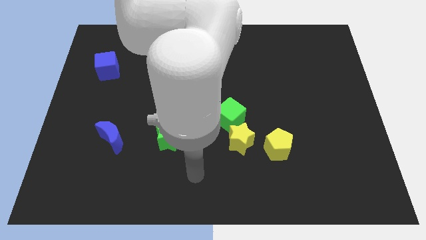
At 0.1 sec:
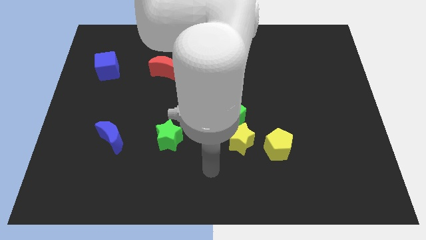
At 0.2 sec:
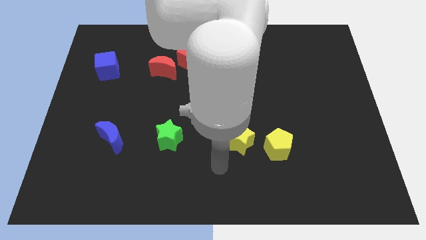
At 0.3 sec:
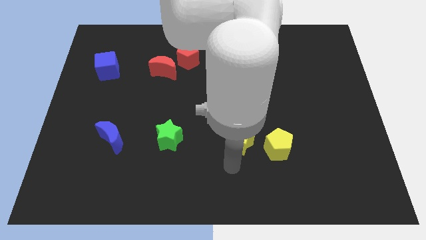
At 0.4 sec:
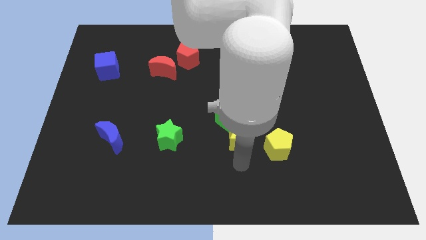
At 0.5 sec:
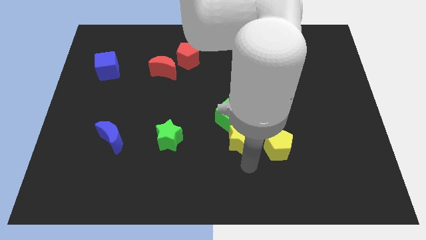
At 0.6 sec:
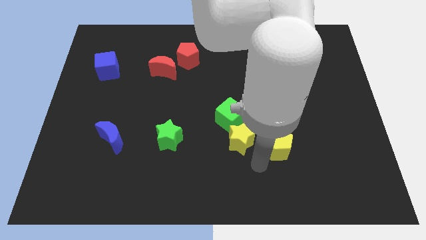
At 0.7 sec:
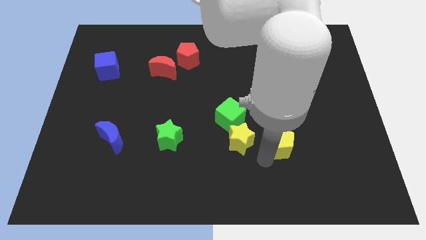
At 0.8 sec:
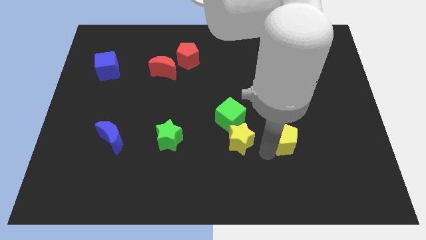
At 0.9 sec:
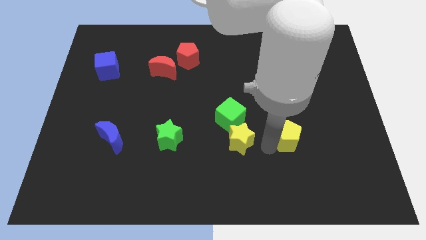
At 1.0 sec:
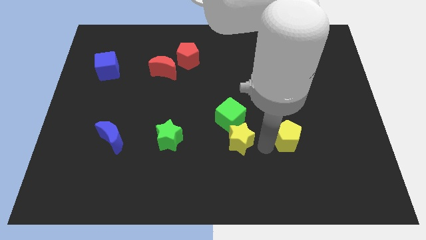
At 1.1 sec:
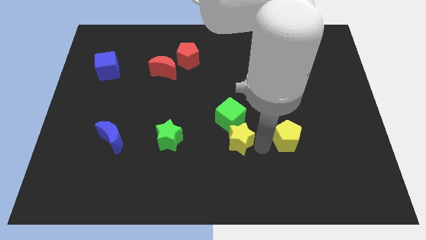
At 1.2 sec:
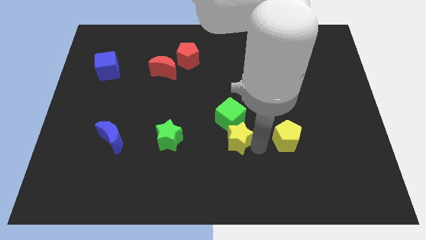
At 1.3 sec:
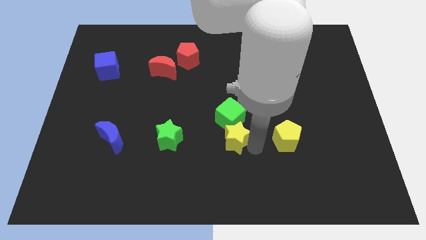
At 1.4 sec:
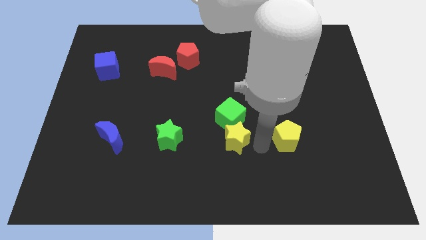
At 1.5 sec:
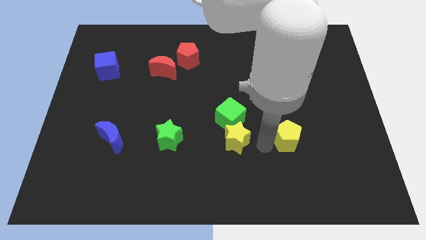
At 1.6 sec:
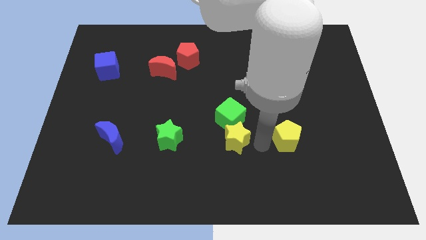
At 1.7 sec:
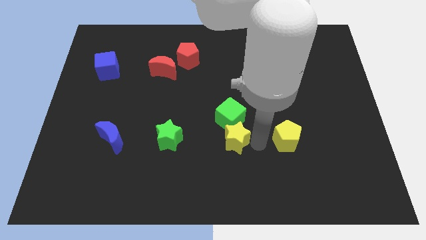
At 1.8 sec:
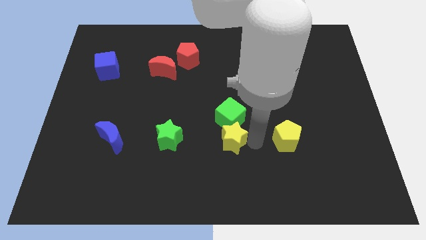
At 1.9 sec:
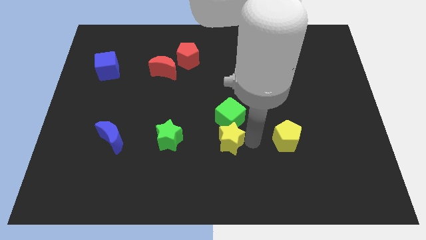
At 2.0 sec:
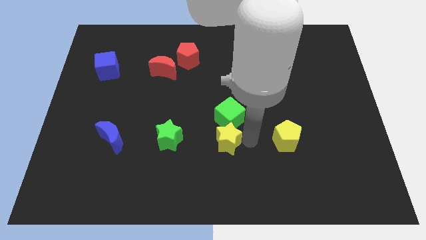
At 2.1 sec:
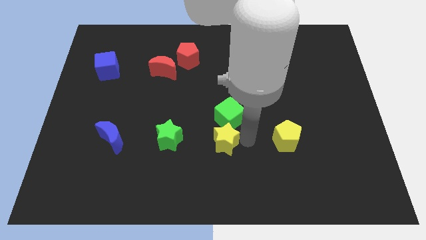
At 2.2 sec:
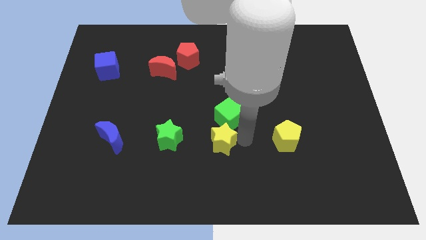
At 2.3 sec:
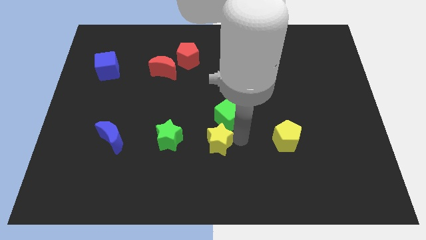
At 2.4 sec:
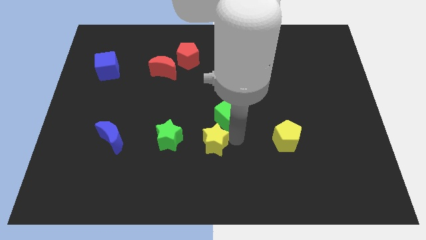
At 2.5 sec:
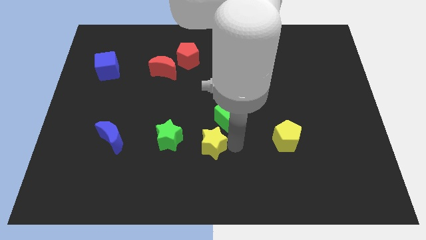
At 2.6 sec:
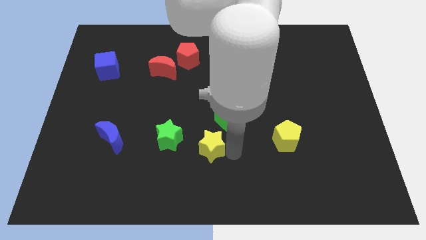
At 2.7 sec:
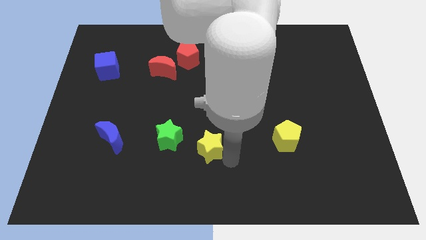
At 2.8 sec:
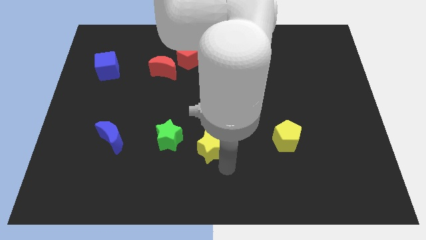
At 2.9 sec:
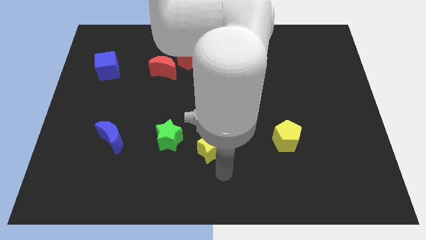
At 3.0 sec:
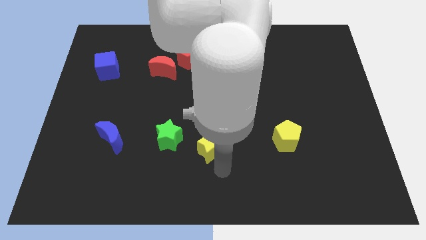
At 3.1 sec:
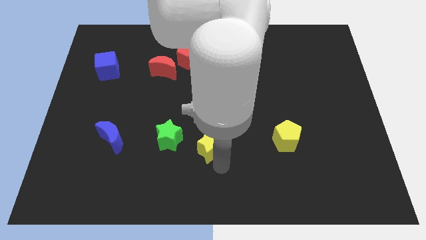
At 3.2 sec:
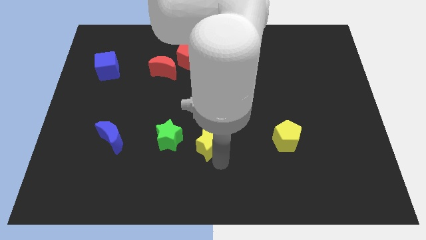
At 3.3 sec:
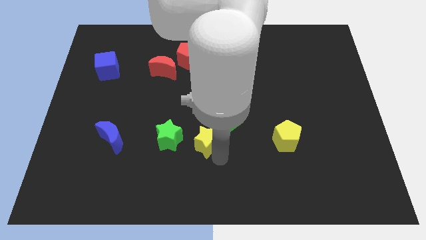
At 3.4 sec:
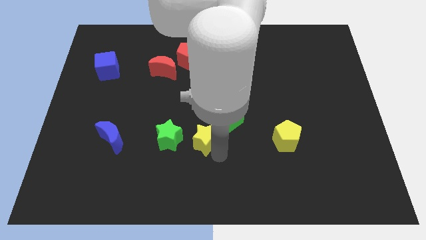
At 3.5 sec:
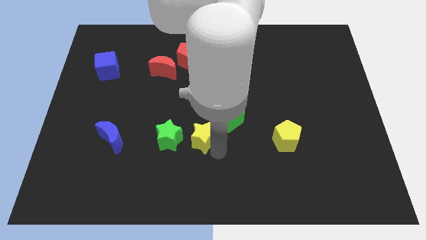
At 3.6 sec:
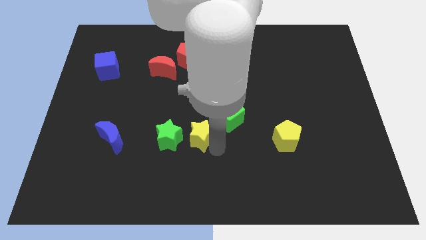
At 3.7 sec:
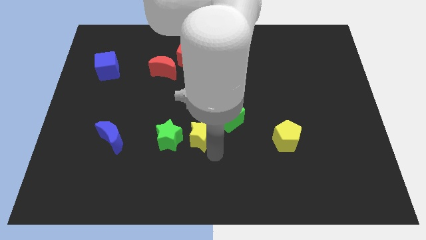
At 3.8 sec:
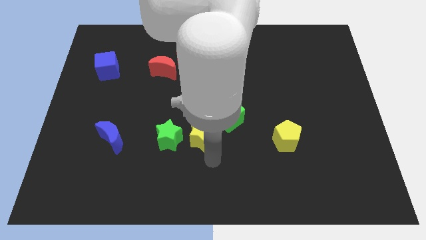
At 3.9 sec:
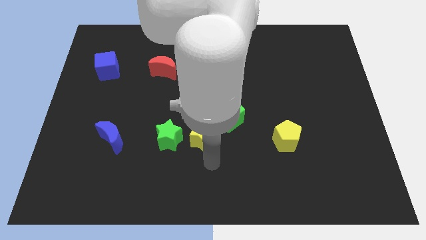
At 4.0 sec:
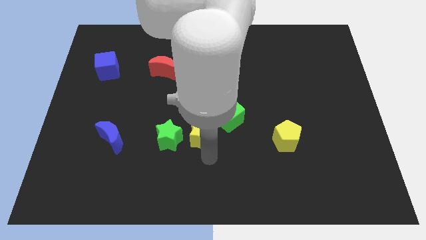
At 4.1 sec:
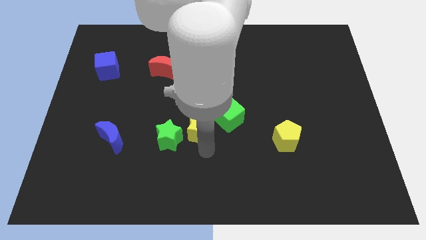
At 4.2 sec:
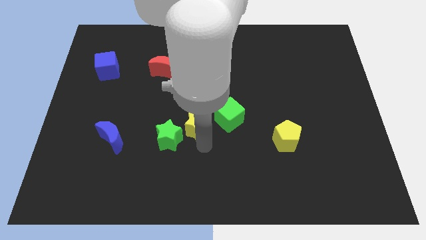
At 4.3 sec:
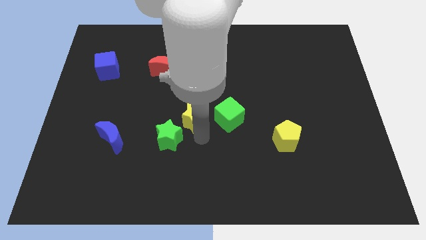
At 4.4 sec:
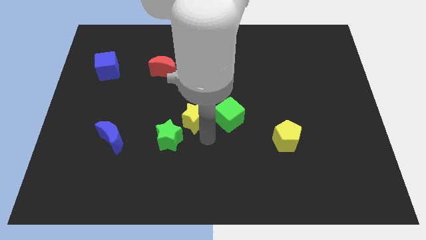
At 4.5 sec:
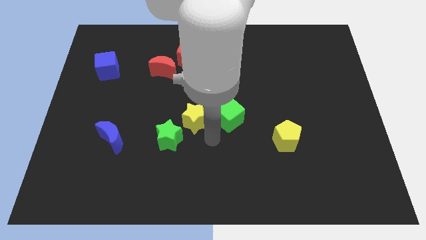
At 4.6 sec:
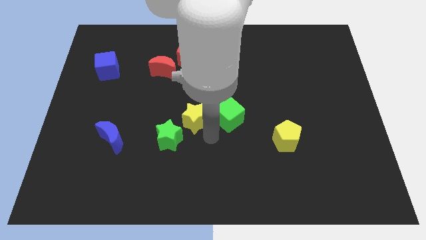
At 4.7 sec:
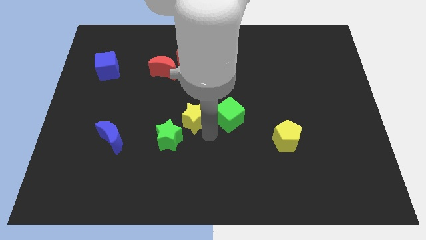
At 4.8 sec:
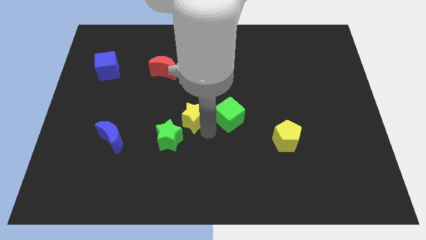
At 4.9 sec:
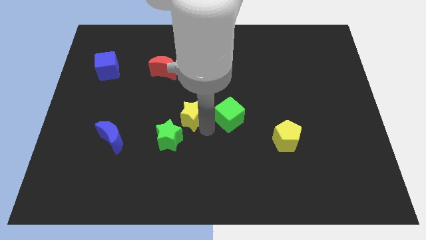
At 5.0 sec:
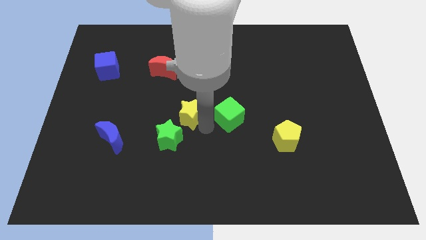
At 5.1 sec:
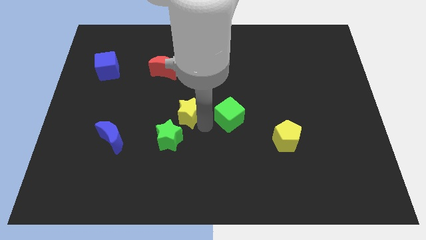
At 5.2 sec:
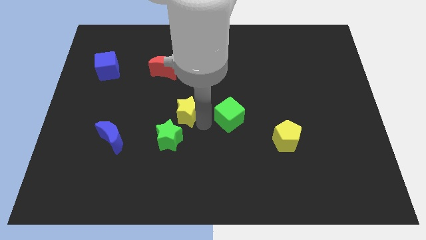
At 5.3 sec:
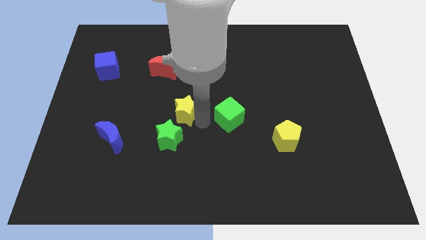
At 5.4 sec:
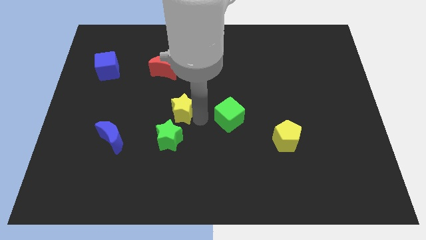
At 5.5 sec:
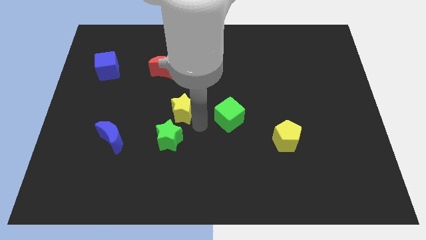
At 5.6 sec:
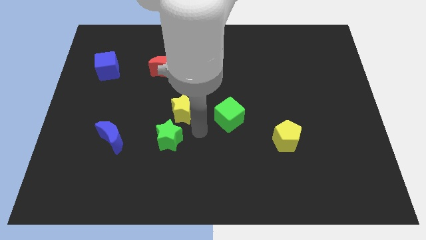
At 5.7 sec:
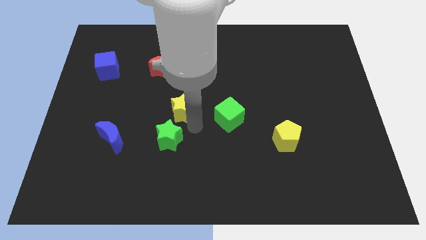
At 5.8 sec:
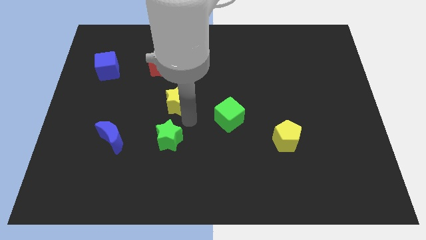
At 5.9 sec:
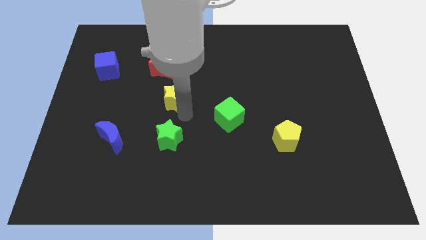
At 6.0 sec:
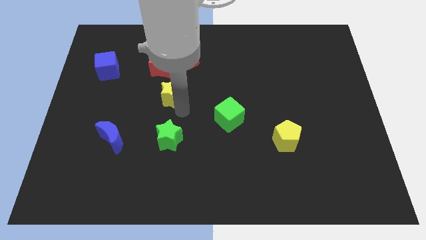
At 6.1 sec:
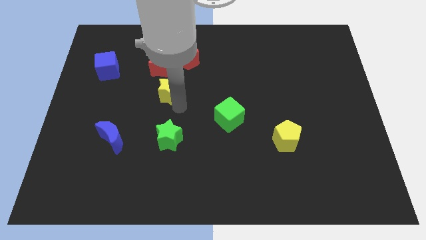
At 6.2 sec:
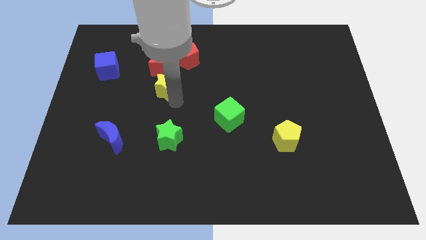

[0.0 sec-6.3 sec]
slide the yellow star to the bottom left side of the red pentagon

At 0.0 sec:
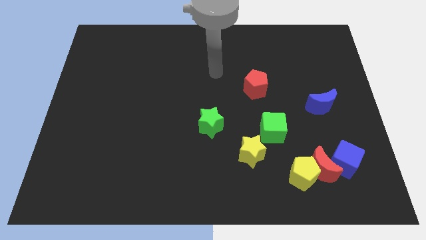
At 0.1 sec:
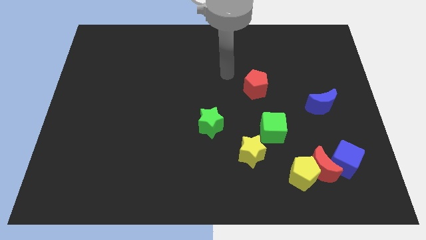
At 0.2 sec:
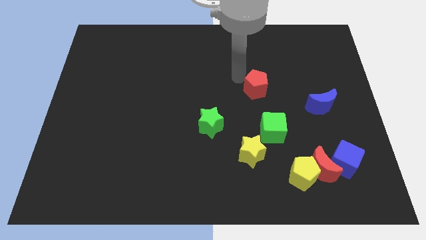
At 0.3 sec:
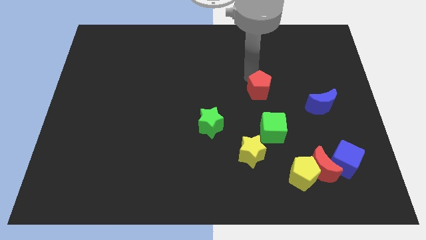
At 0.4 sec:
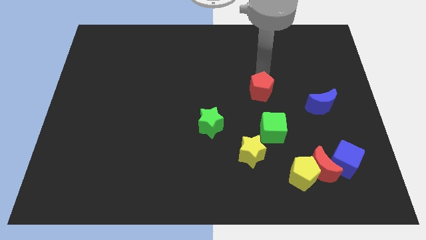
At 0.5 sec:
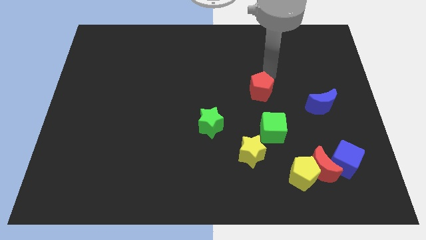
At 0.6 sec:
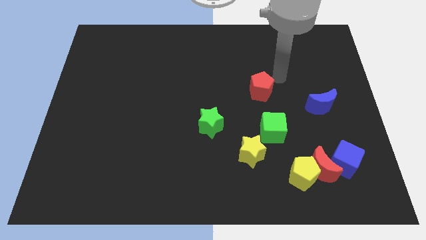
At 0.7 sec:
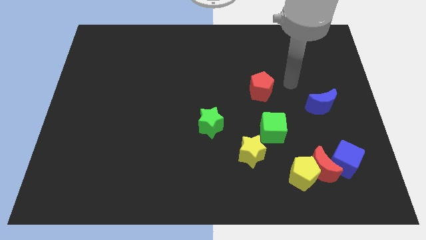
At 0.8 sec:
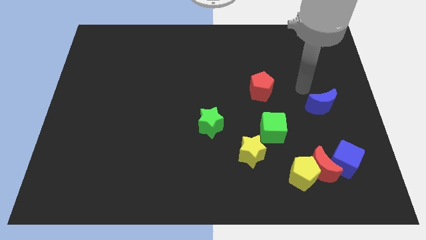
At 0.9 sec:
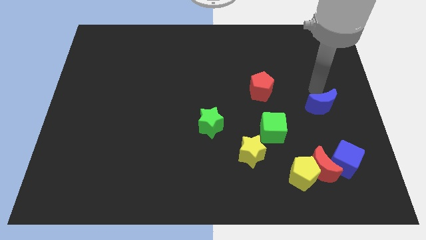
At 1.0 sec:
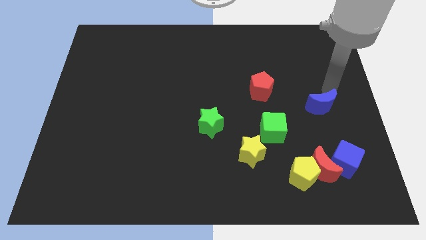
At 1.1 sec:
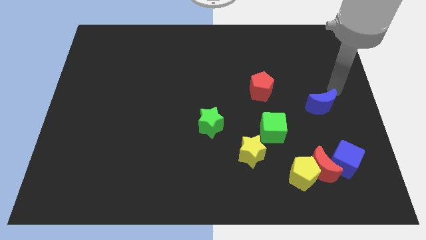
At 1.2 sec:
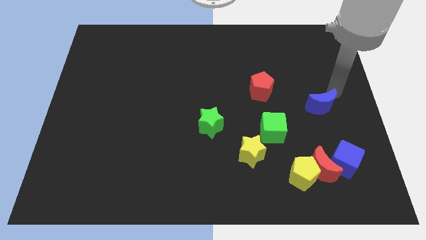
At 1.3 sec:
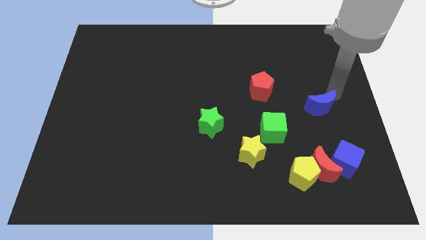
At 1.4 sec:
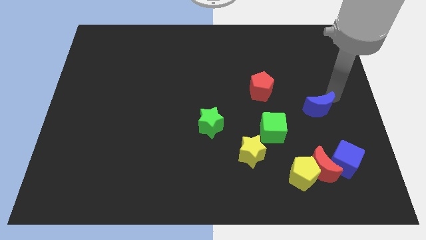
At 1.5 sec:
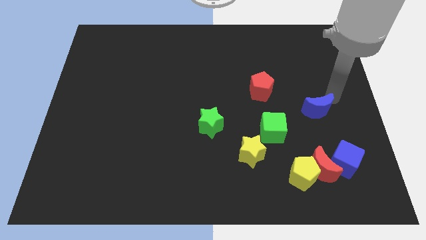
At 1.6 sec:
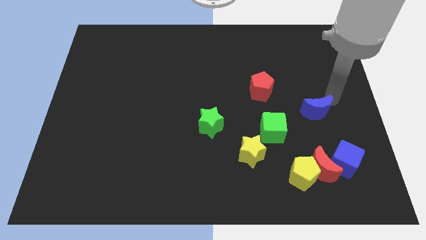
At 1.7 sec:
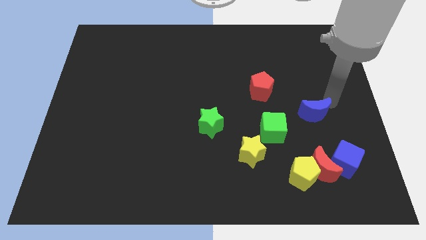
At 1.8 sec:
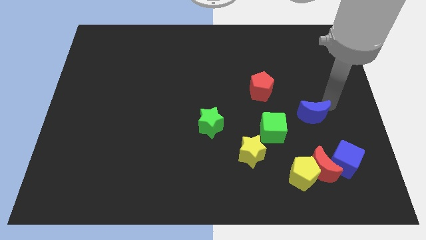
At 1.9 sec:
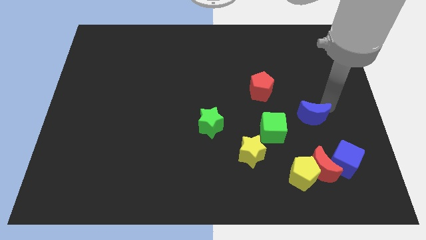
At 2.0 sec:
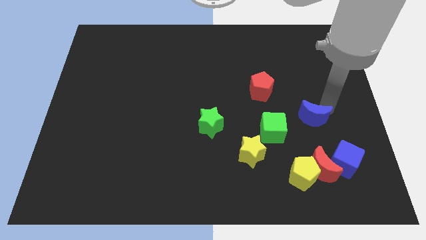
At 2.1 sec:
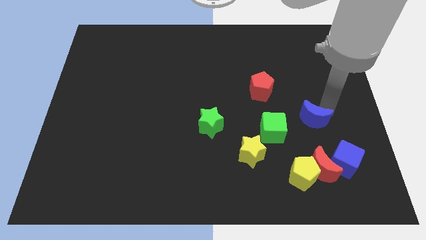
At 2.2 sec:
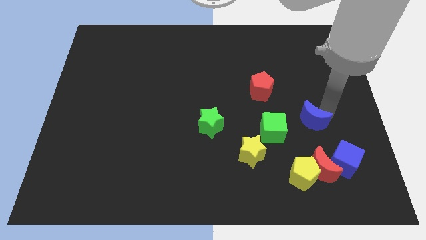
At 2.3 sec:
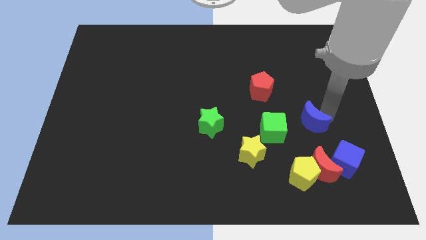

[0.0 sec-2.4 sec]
push the blue moon to the top side of the yellow pentagon
